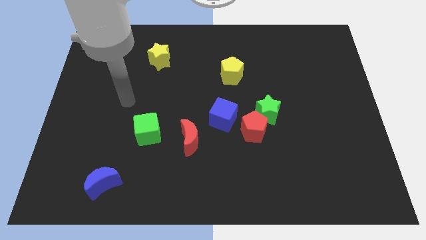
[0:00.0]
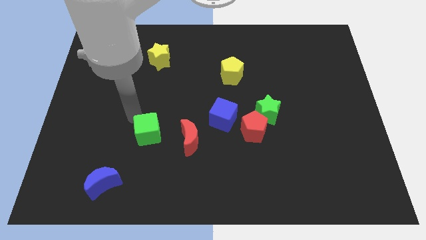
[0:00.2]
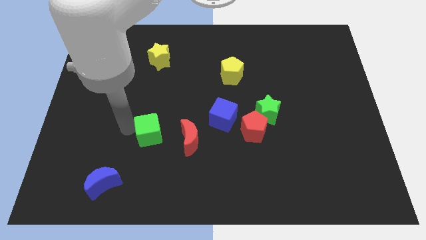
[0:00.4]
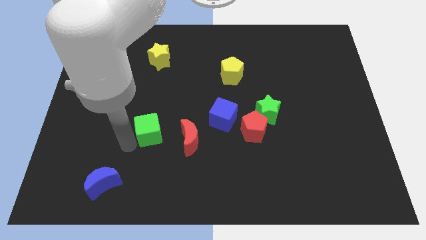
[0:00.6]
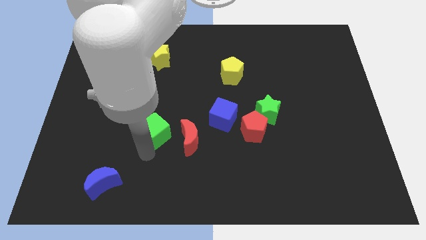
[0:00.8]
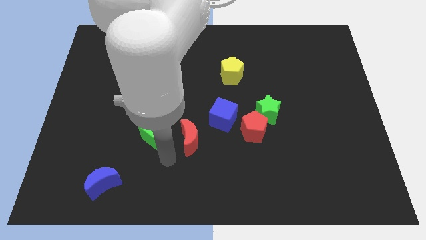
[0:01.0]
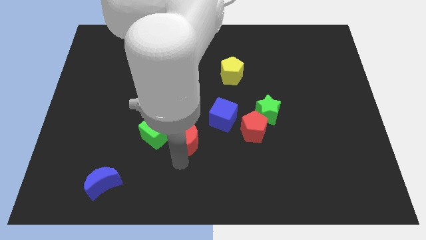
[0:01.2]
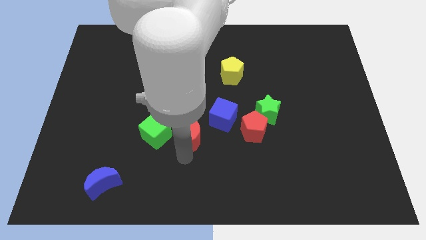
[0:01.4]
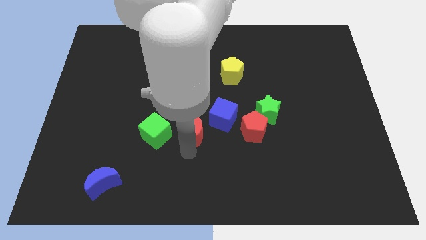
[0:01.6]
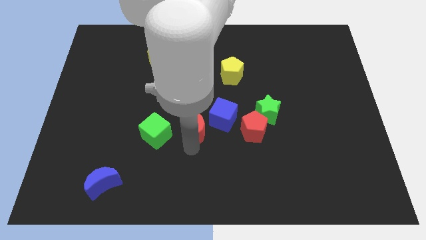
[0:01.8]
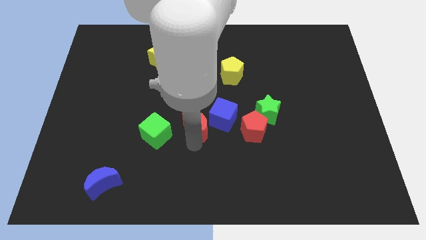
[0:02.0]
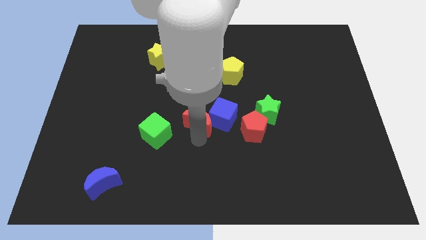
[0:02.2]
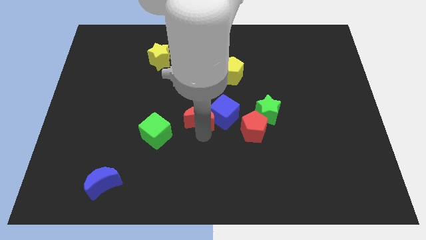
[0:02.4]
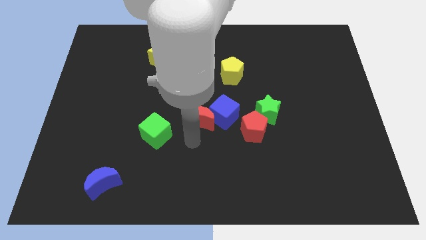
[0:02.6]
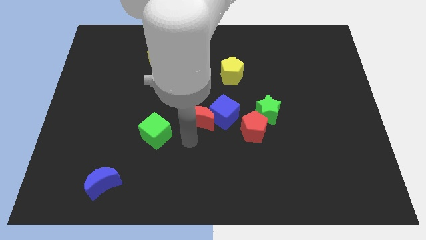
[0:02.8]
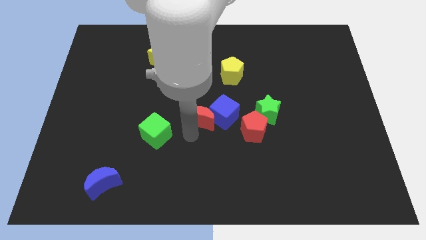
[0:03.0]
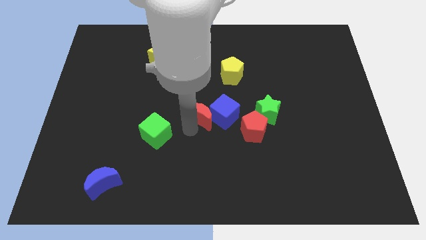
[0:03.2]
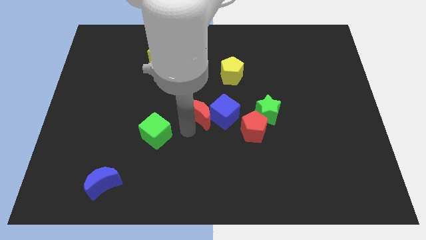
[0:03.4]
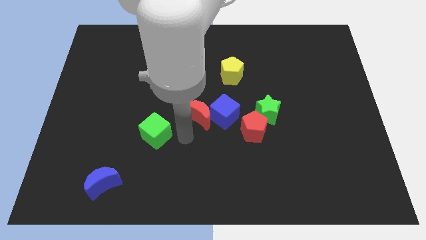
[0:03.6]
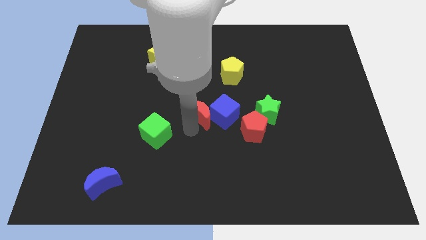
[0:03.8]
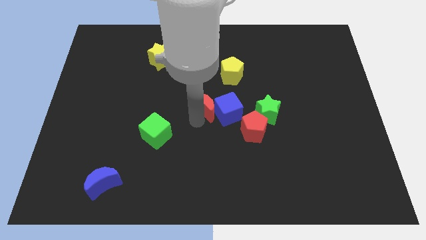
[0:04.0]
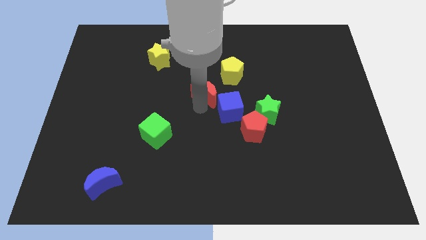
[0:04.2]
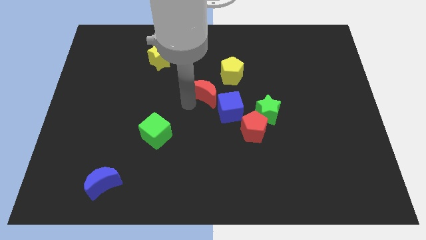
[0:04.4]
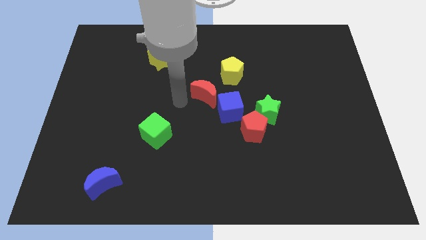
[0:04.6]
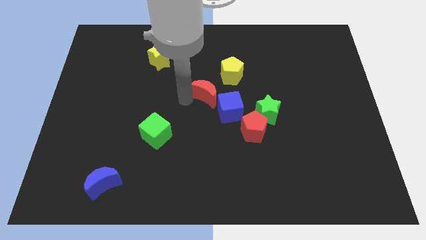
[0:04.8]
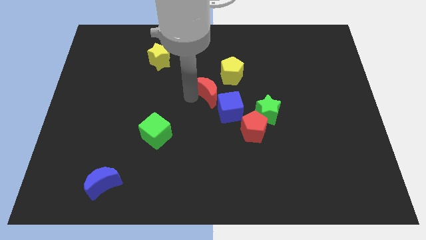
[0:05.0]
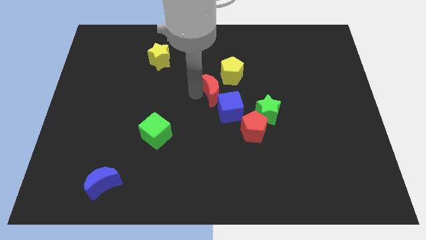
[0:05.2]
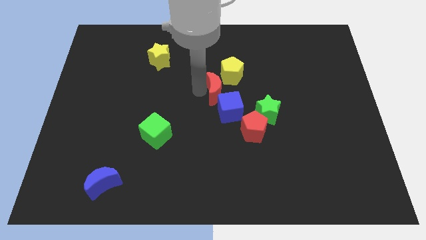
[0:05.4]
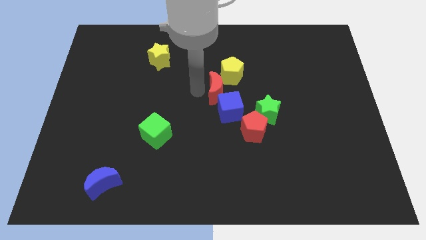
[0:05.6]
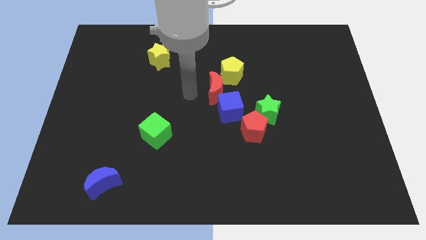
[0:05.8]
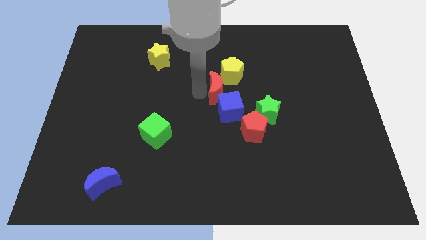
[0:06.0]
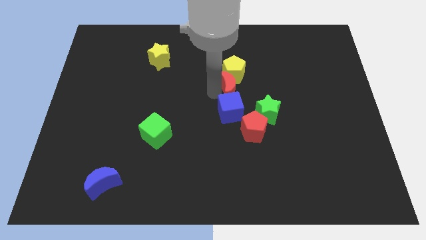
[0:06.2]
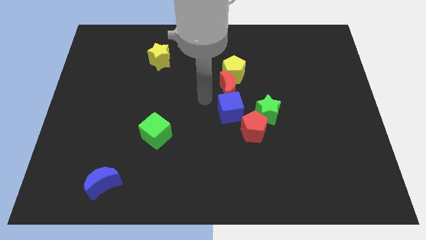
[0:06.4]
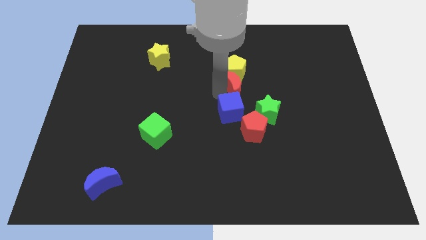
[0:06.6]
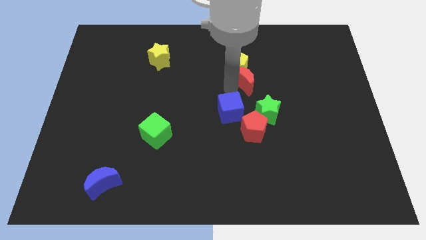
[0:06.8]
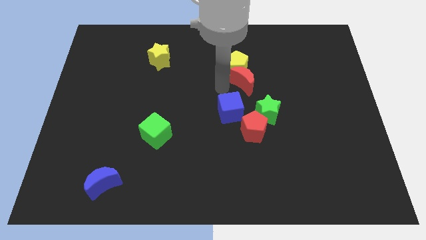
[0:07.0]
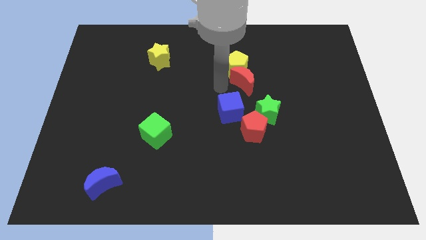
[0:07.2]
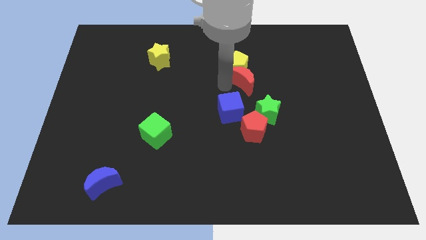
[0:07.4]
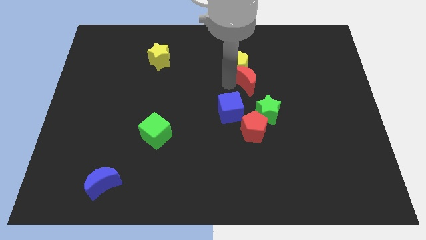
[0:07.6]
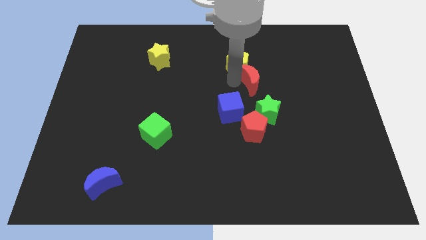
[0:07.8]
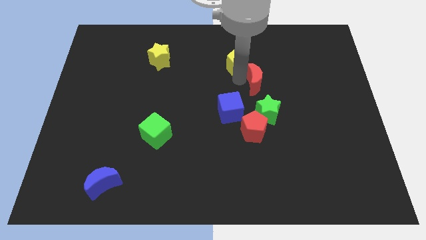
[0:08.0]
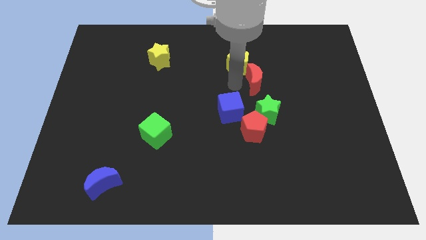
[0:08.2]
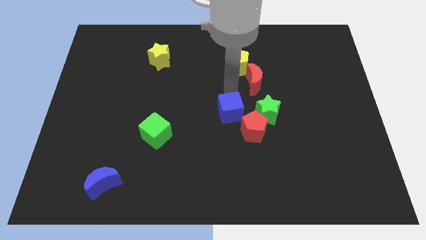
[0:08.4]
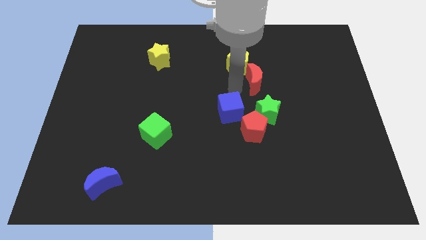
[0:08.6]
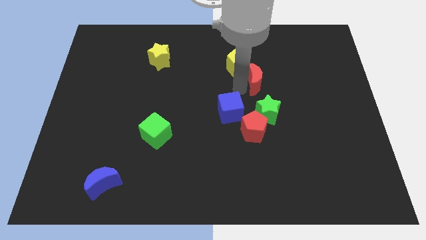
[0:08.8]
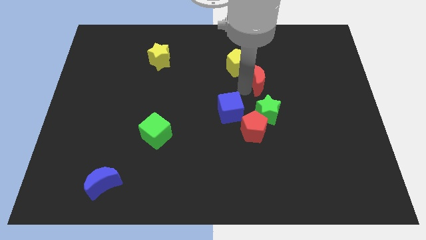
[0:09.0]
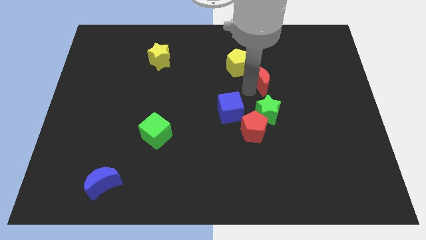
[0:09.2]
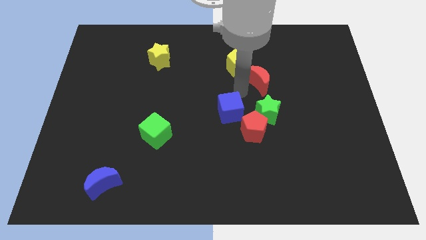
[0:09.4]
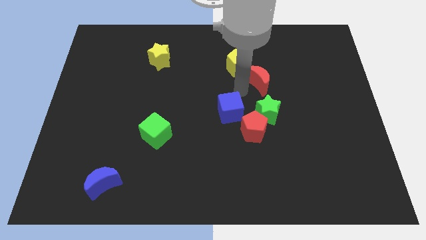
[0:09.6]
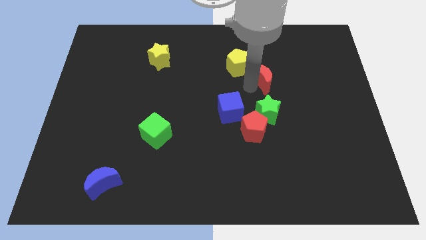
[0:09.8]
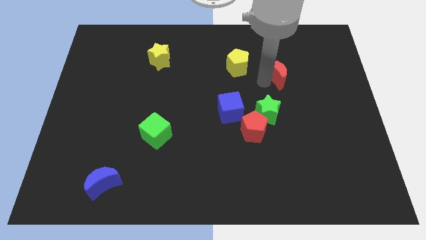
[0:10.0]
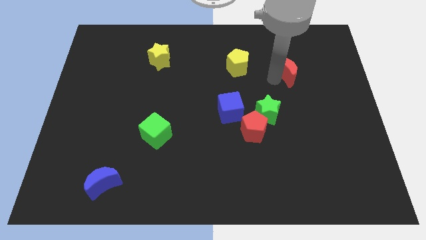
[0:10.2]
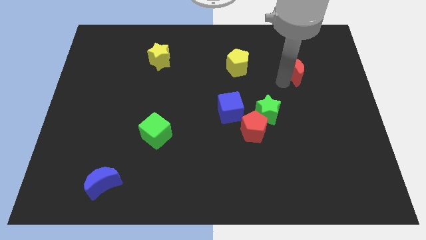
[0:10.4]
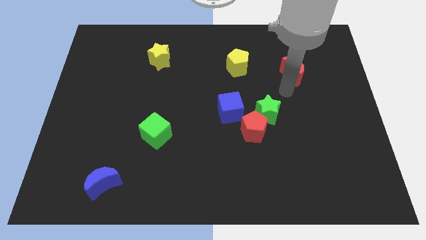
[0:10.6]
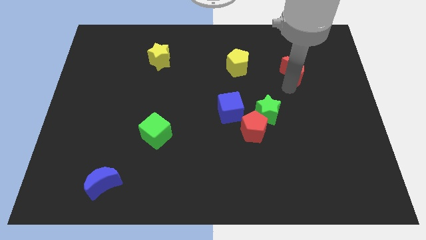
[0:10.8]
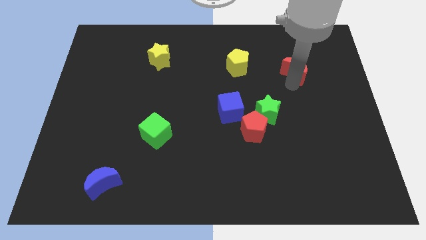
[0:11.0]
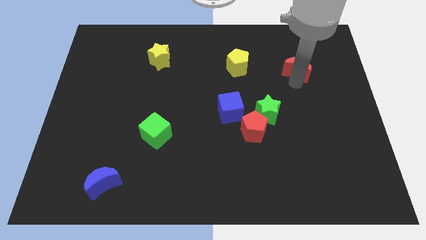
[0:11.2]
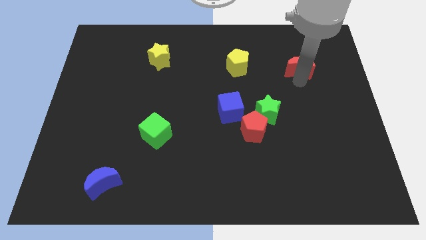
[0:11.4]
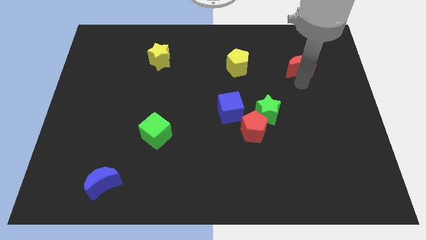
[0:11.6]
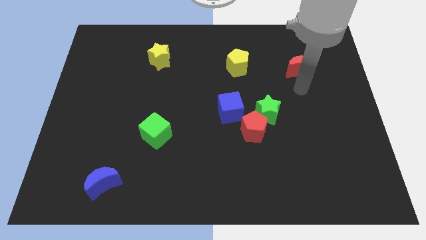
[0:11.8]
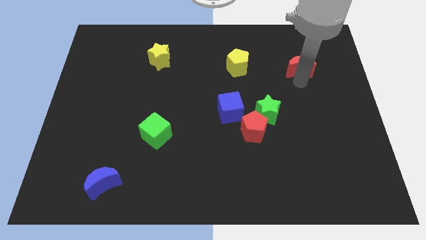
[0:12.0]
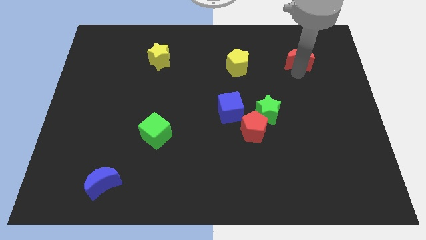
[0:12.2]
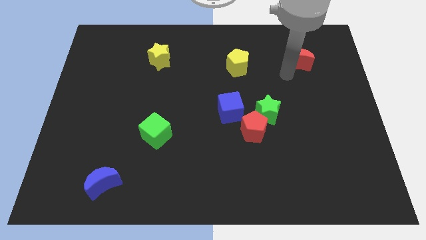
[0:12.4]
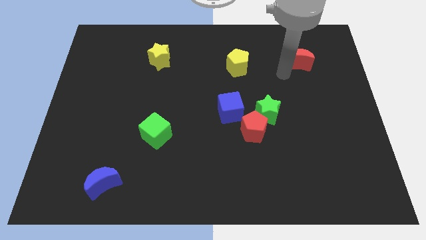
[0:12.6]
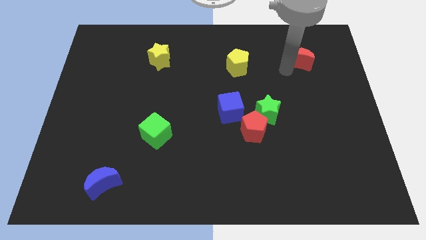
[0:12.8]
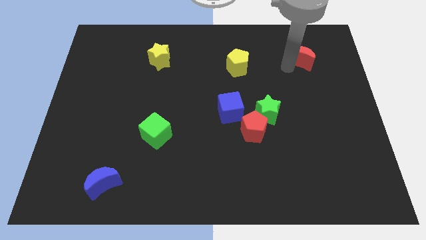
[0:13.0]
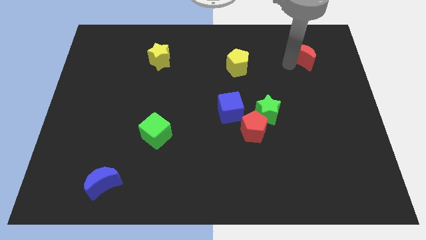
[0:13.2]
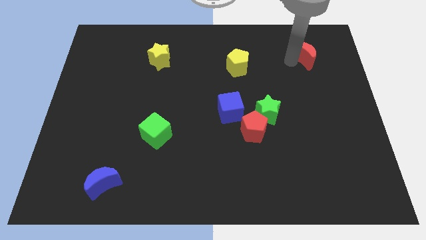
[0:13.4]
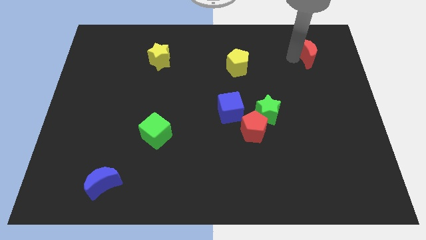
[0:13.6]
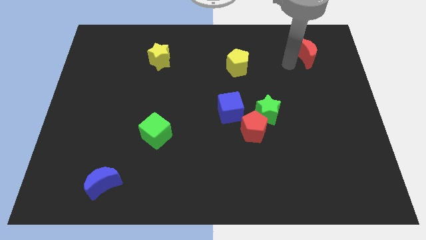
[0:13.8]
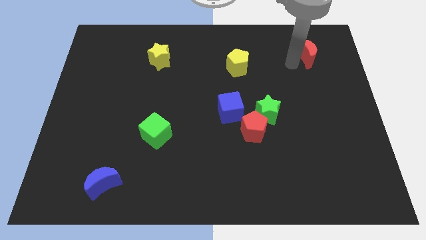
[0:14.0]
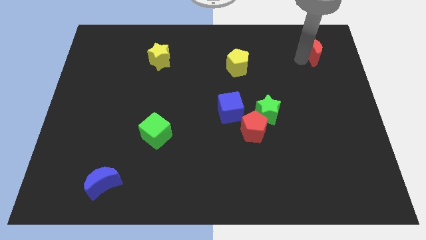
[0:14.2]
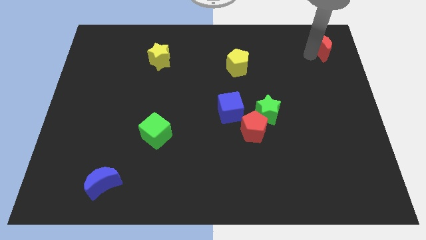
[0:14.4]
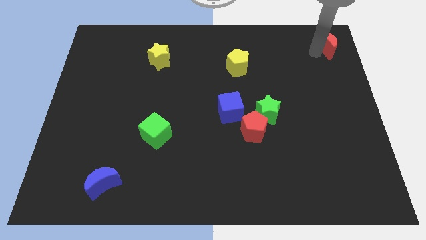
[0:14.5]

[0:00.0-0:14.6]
push the red moon to the upper right corner
